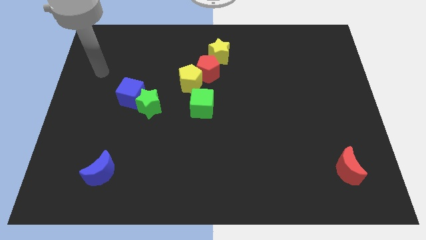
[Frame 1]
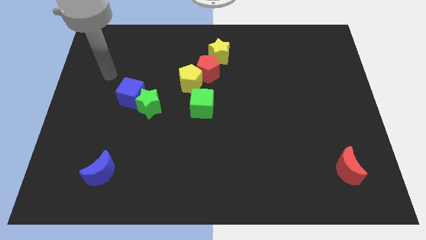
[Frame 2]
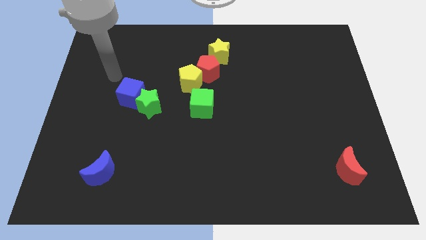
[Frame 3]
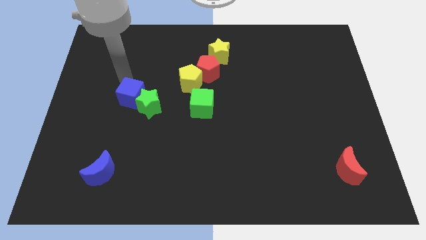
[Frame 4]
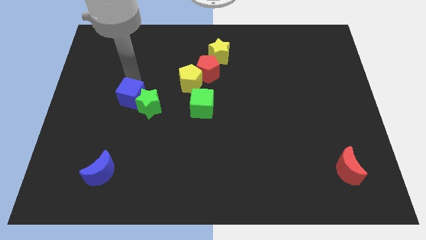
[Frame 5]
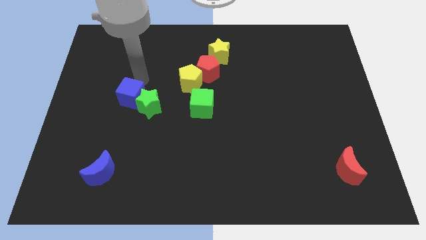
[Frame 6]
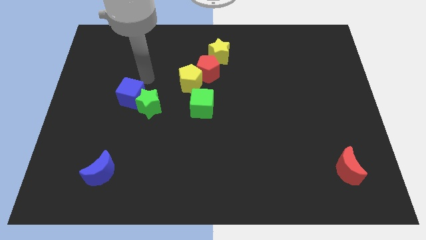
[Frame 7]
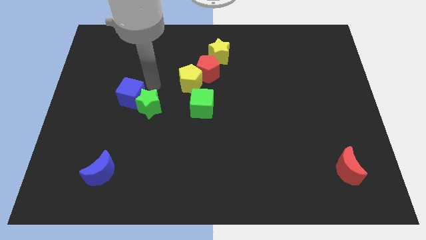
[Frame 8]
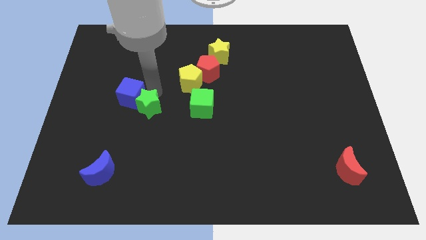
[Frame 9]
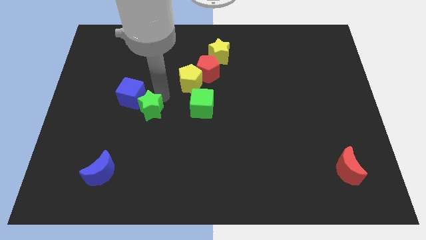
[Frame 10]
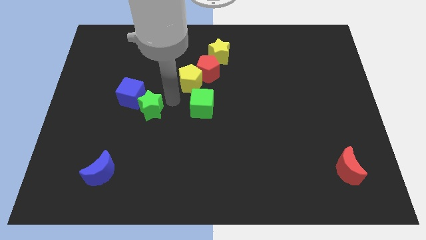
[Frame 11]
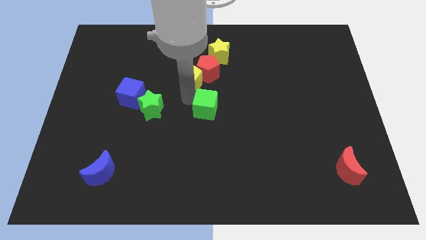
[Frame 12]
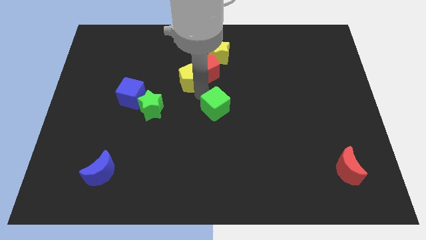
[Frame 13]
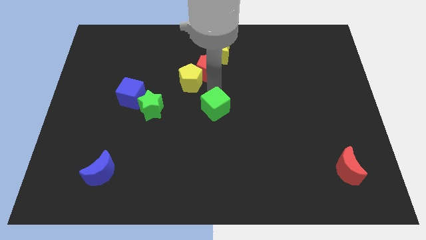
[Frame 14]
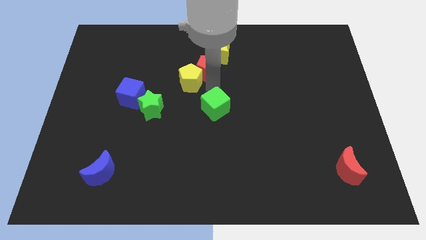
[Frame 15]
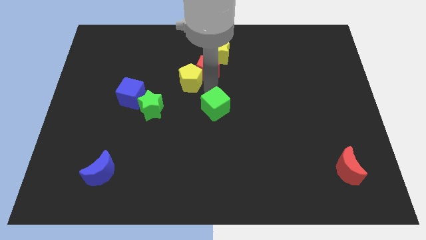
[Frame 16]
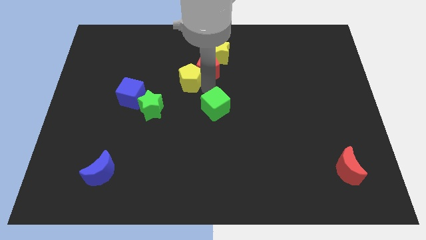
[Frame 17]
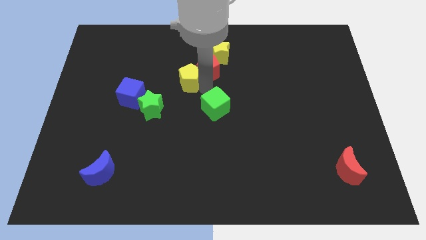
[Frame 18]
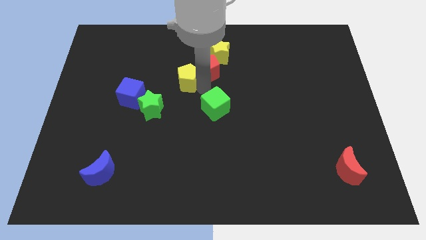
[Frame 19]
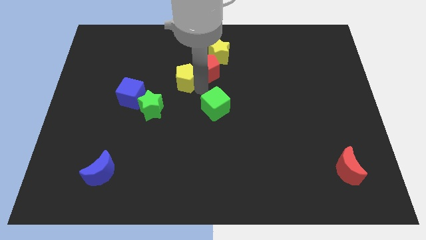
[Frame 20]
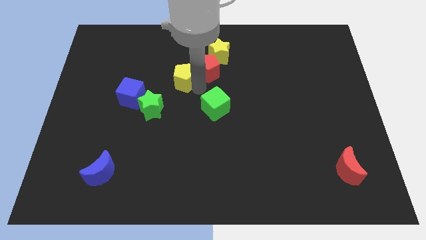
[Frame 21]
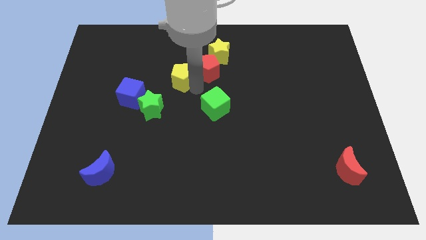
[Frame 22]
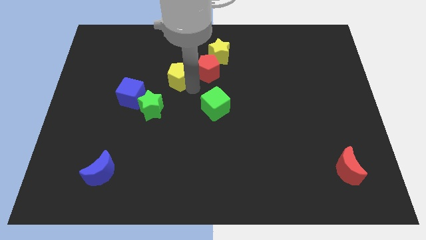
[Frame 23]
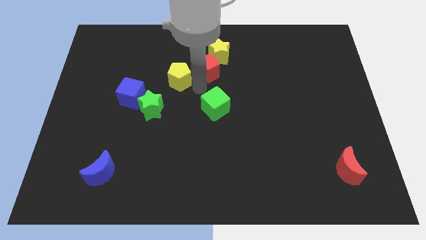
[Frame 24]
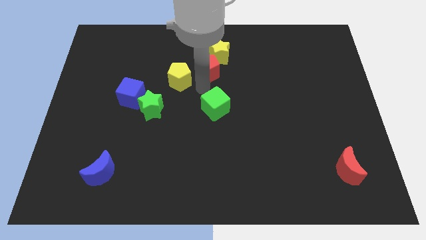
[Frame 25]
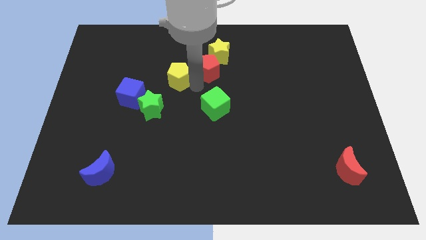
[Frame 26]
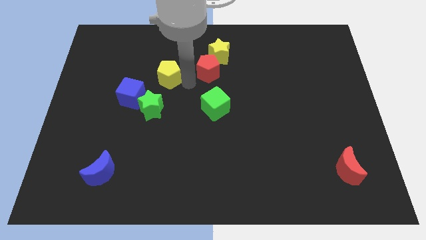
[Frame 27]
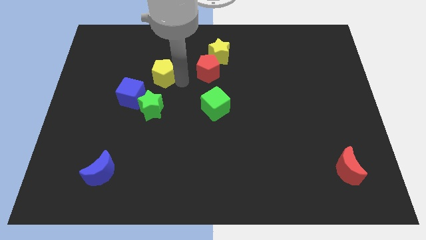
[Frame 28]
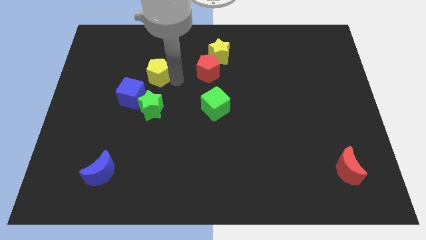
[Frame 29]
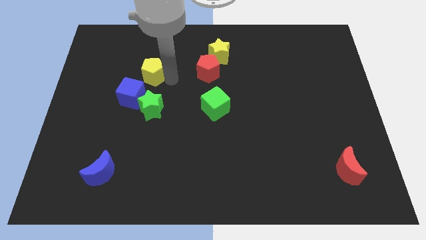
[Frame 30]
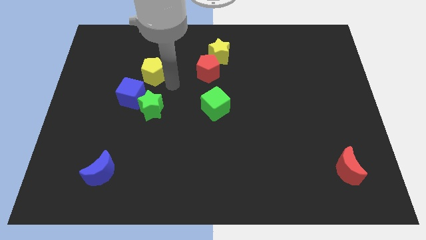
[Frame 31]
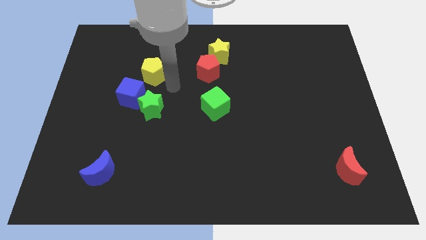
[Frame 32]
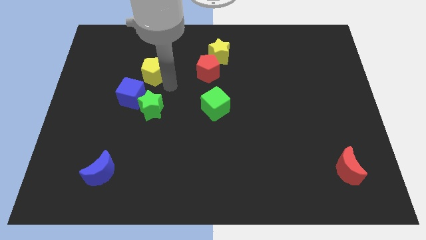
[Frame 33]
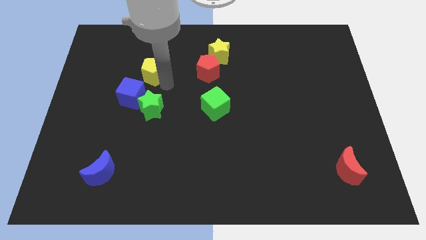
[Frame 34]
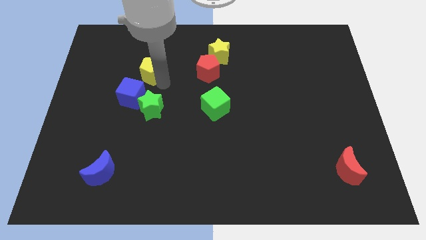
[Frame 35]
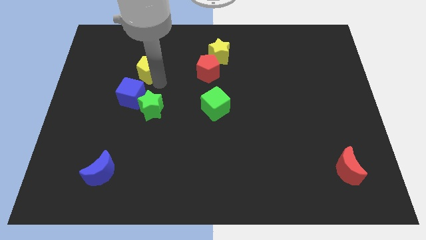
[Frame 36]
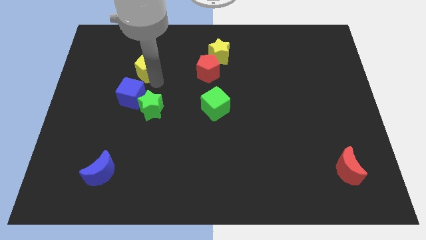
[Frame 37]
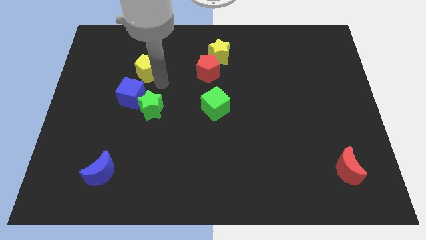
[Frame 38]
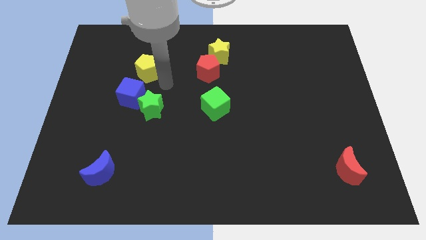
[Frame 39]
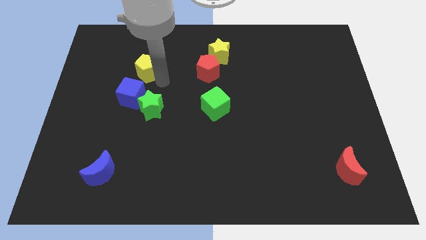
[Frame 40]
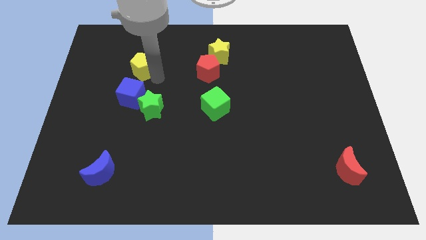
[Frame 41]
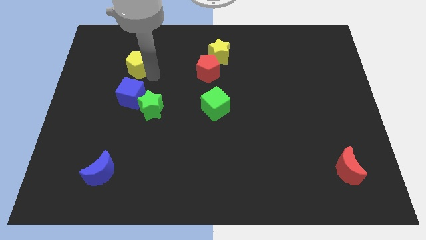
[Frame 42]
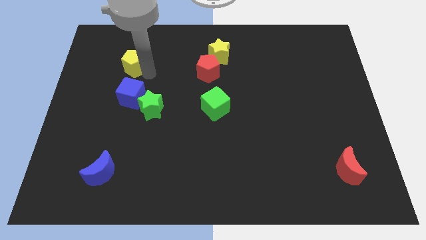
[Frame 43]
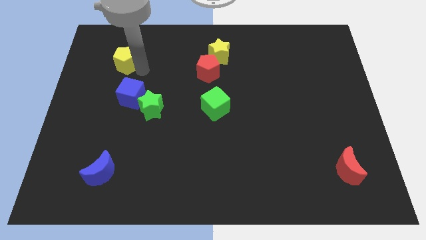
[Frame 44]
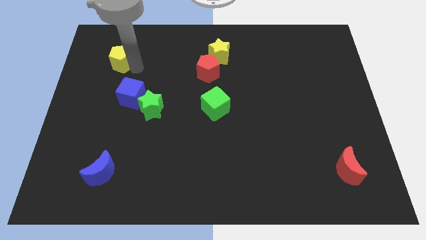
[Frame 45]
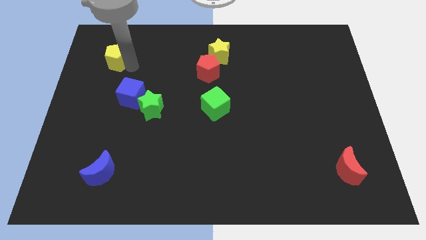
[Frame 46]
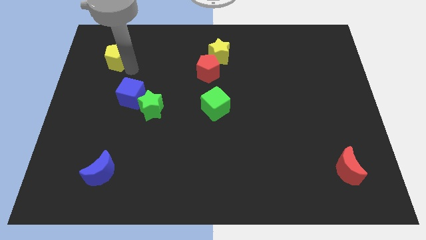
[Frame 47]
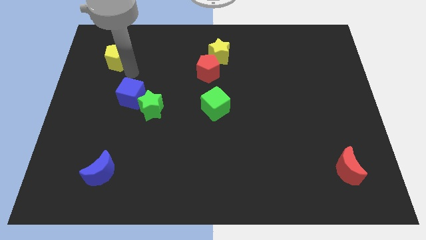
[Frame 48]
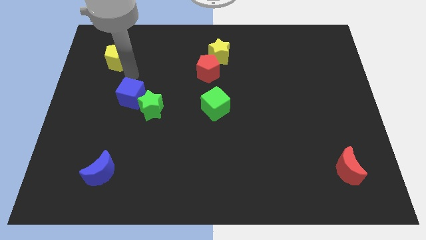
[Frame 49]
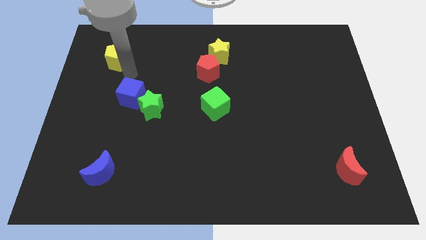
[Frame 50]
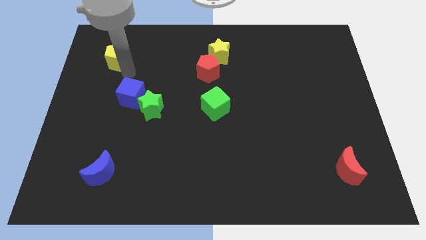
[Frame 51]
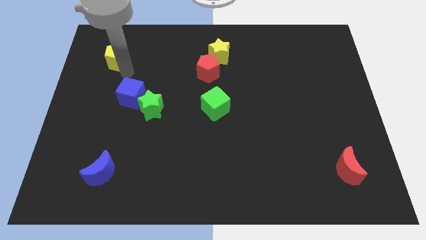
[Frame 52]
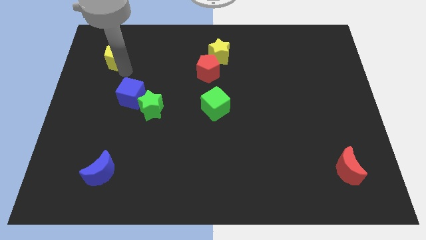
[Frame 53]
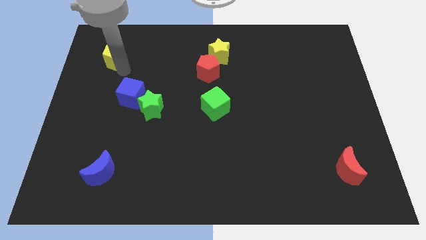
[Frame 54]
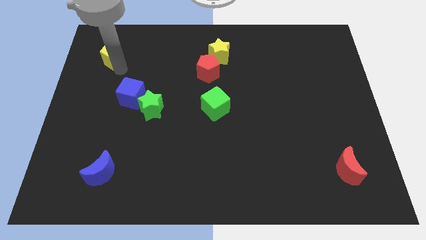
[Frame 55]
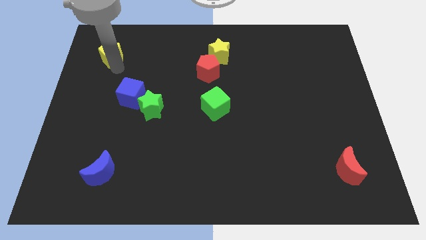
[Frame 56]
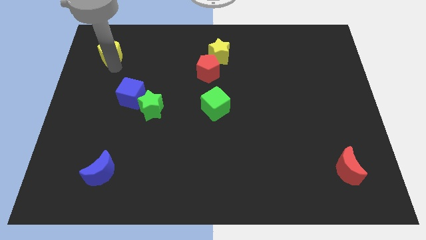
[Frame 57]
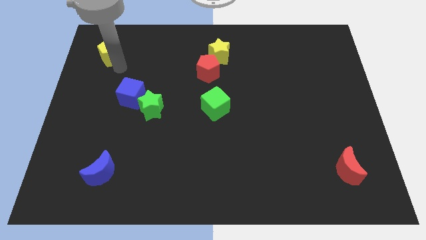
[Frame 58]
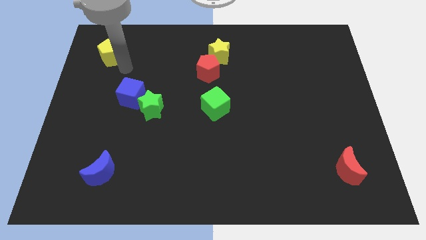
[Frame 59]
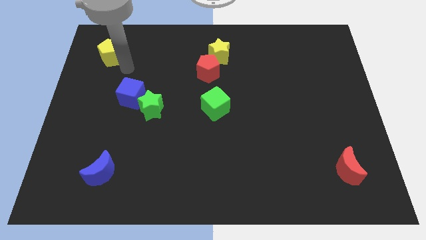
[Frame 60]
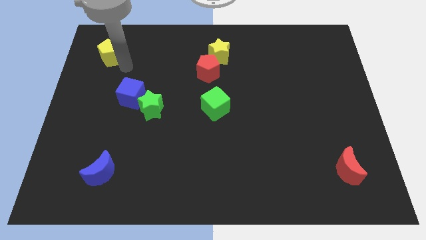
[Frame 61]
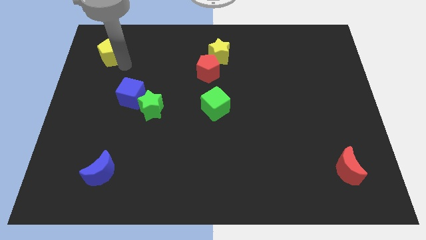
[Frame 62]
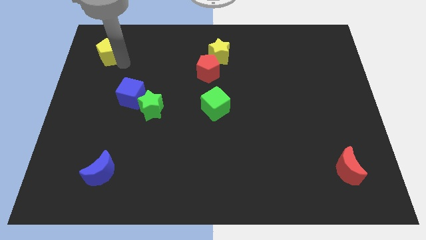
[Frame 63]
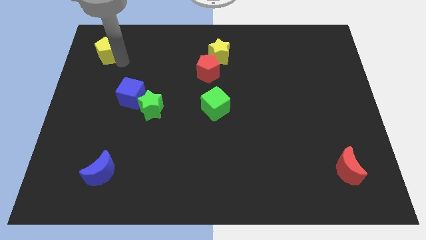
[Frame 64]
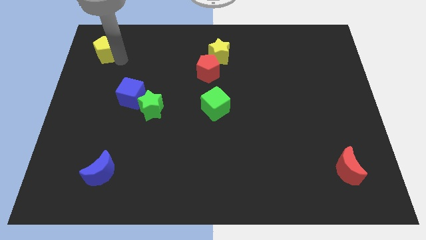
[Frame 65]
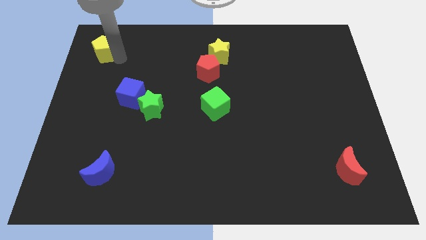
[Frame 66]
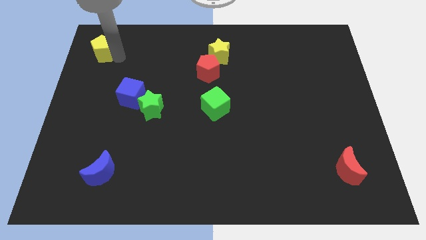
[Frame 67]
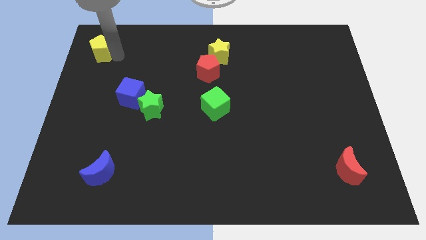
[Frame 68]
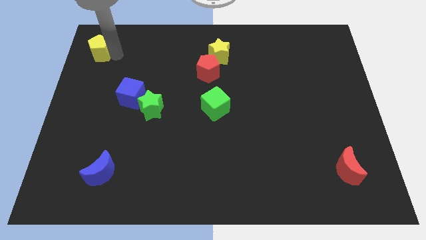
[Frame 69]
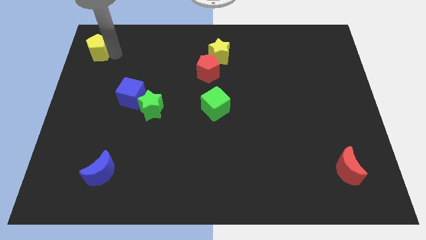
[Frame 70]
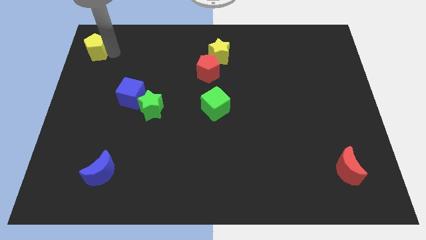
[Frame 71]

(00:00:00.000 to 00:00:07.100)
push the yellow pentagon to the top left of the board
